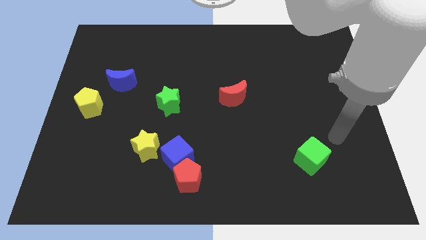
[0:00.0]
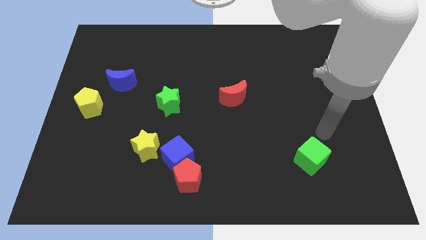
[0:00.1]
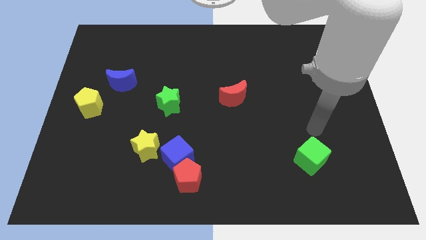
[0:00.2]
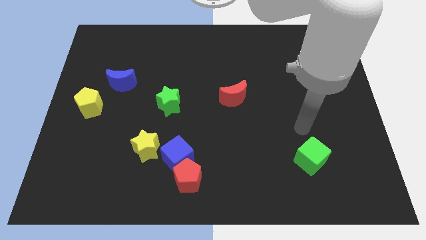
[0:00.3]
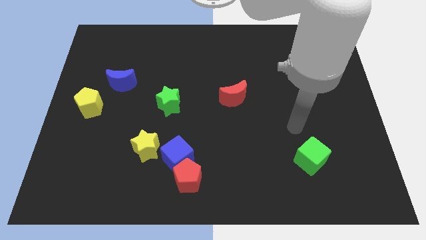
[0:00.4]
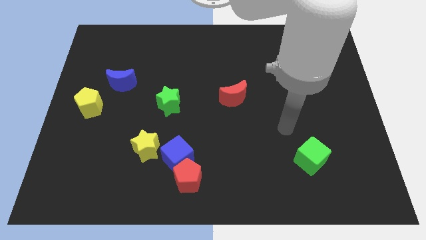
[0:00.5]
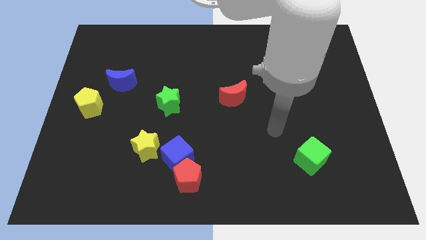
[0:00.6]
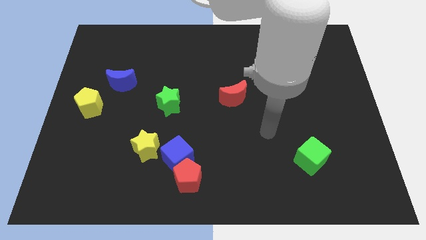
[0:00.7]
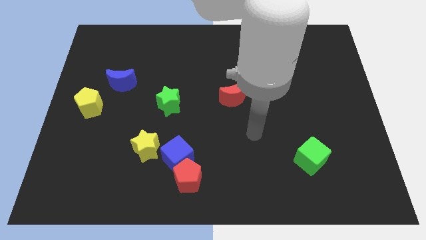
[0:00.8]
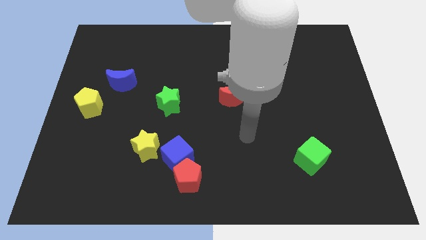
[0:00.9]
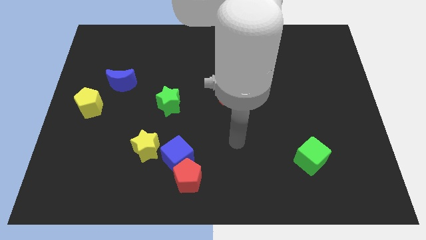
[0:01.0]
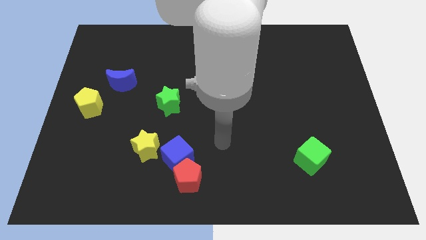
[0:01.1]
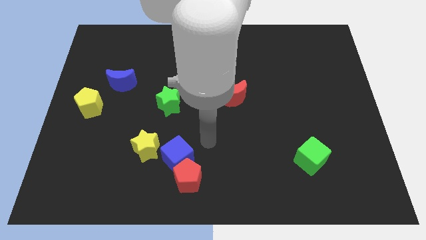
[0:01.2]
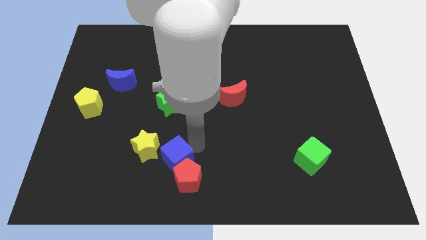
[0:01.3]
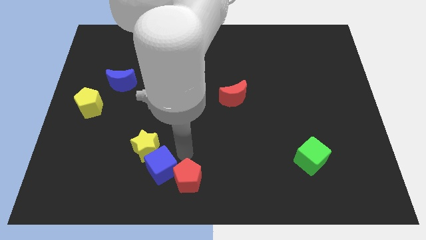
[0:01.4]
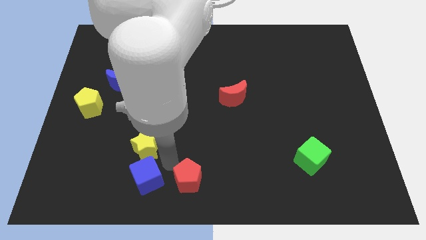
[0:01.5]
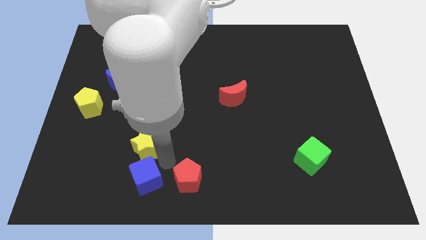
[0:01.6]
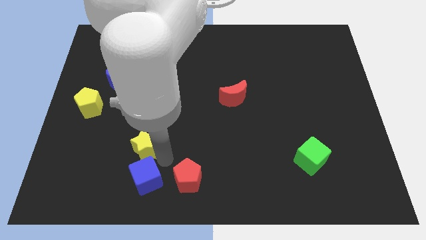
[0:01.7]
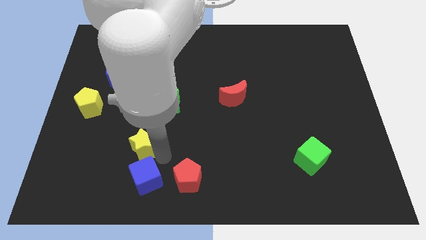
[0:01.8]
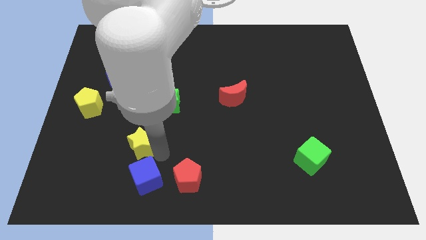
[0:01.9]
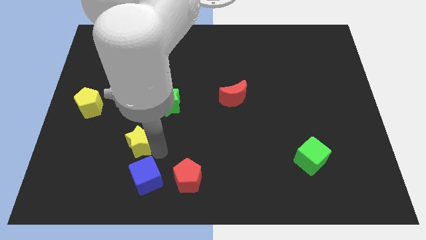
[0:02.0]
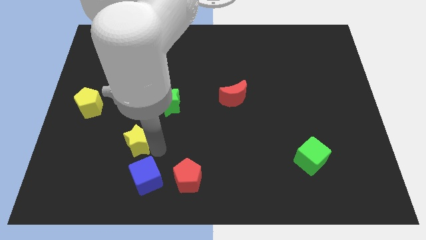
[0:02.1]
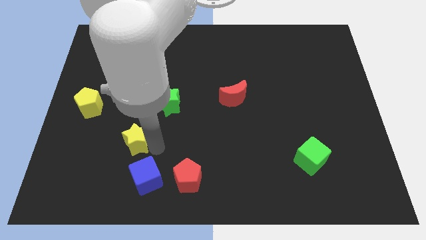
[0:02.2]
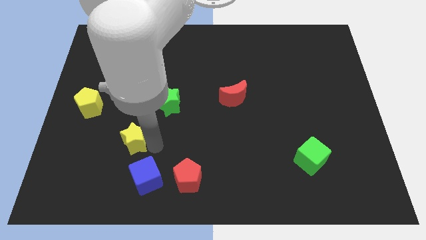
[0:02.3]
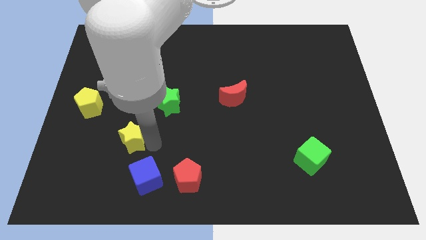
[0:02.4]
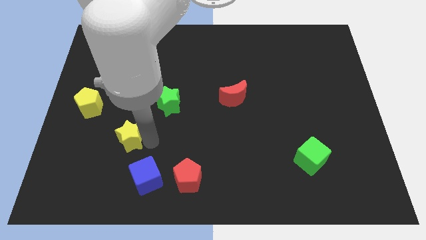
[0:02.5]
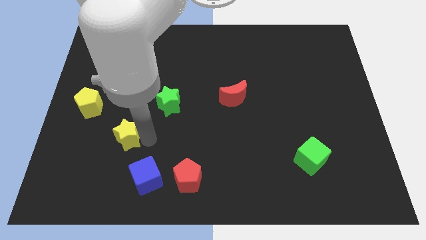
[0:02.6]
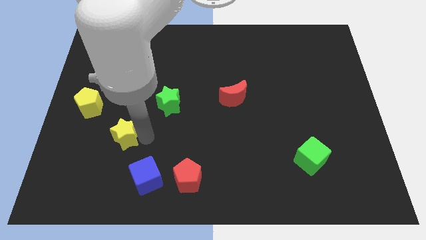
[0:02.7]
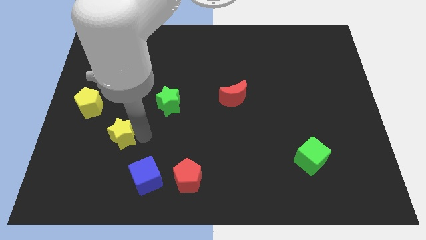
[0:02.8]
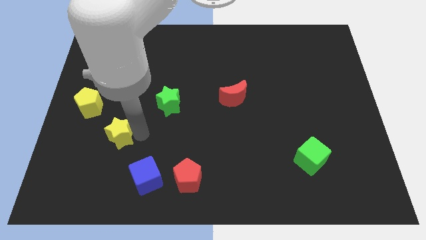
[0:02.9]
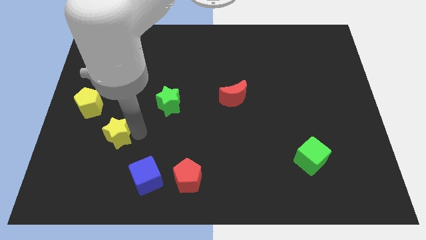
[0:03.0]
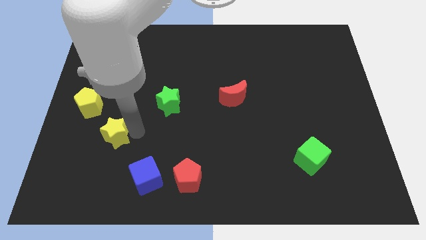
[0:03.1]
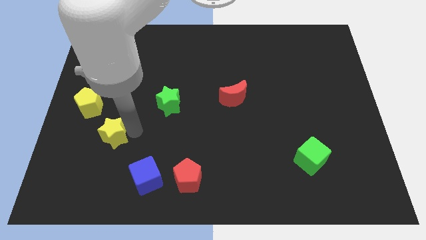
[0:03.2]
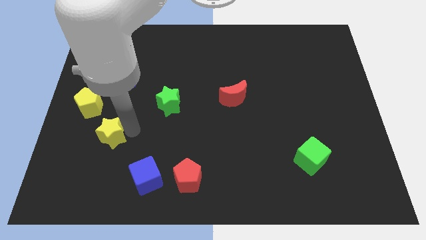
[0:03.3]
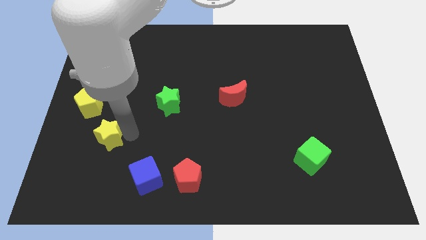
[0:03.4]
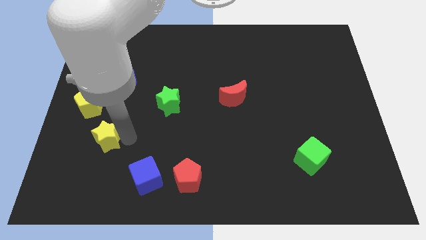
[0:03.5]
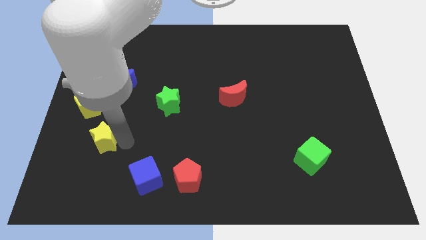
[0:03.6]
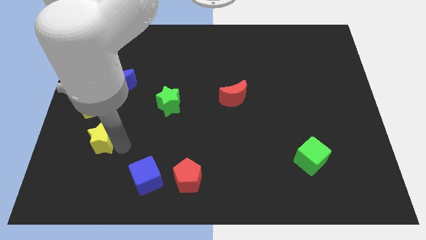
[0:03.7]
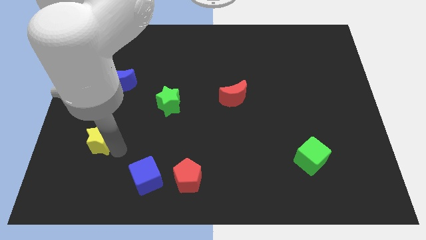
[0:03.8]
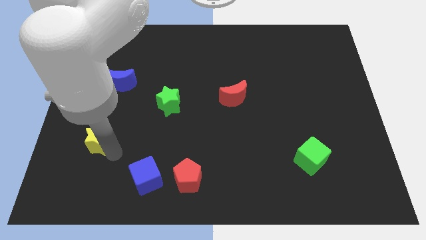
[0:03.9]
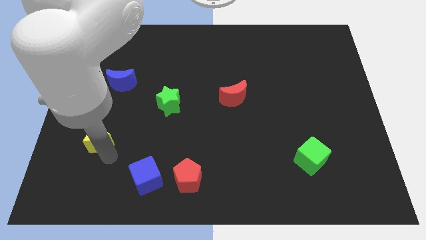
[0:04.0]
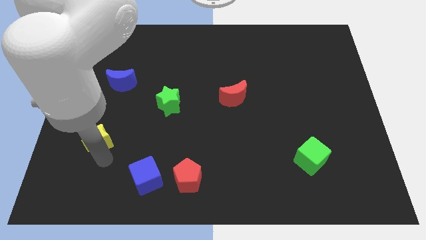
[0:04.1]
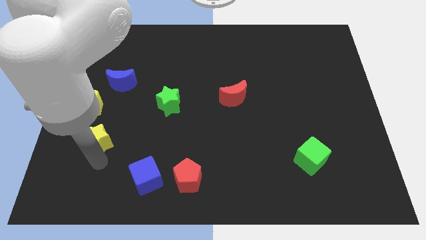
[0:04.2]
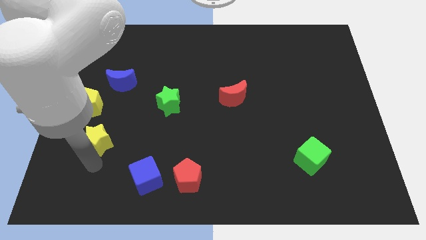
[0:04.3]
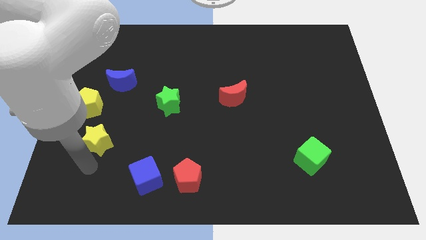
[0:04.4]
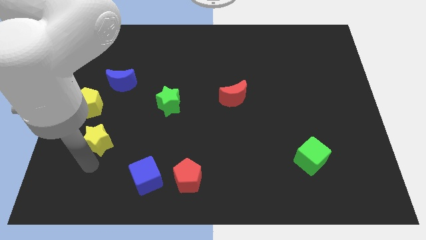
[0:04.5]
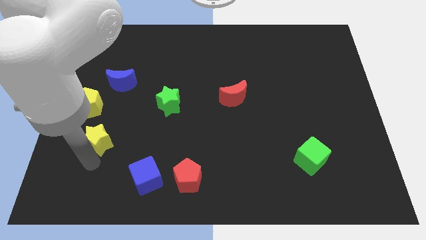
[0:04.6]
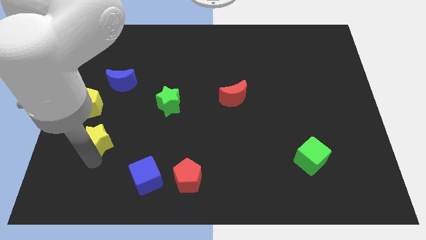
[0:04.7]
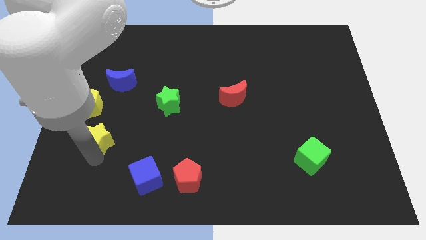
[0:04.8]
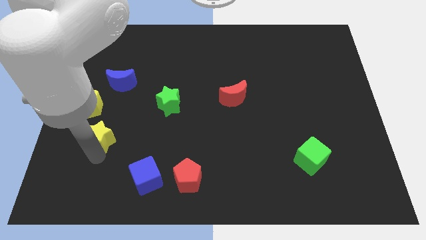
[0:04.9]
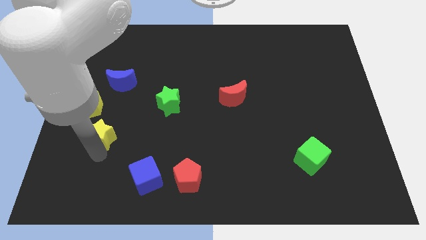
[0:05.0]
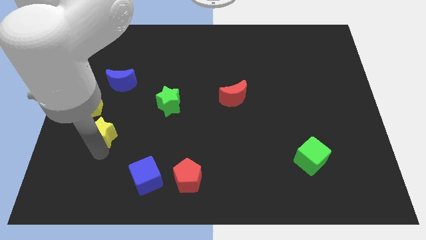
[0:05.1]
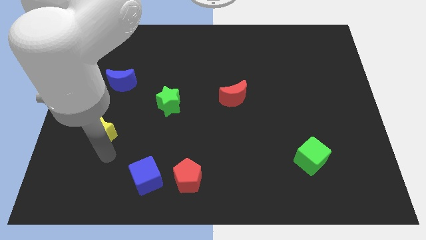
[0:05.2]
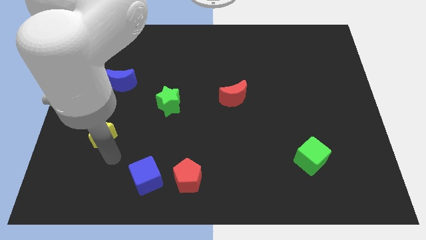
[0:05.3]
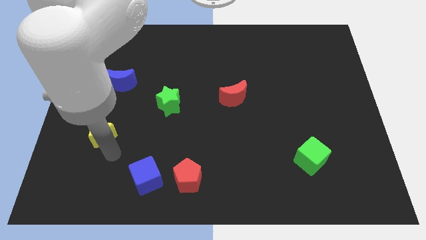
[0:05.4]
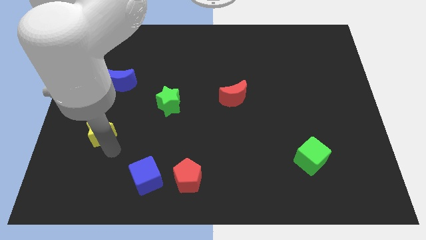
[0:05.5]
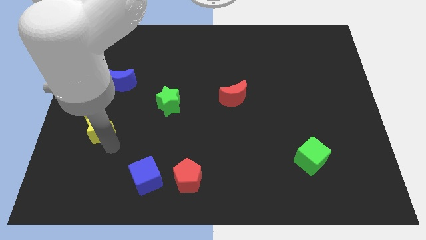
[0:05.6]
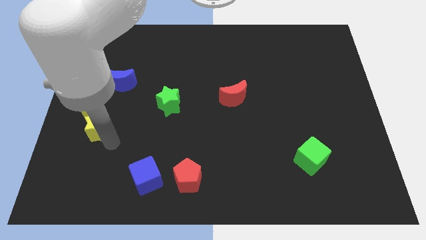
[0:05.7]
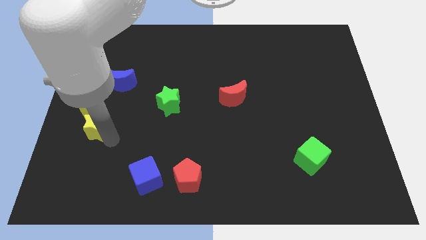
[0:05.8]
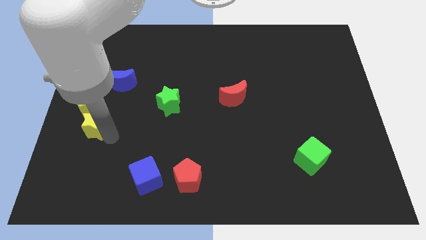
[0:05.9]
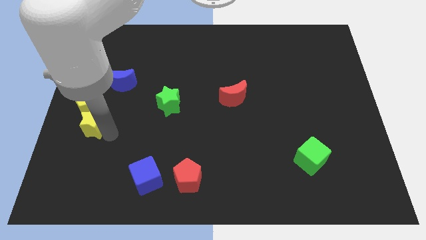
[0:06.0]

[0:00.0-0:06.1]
put the yellow star towards the yellow pentagon

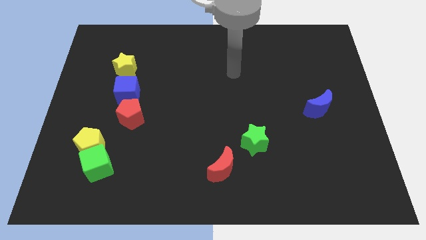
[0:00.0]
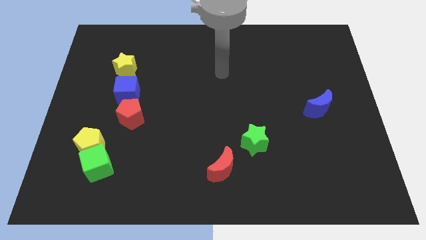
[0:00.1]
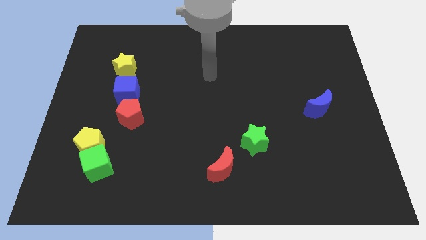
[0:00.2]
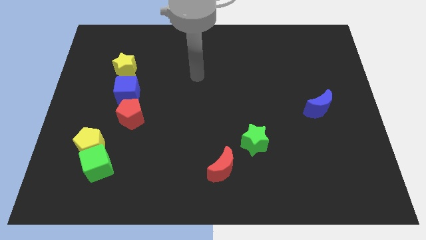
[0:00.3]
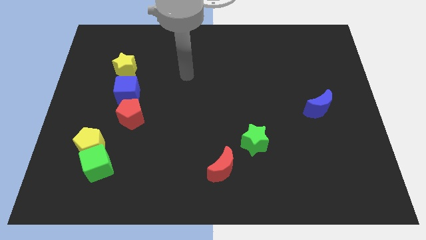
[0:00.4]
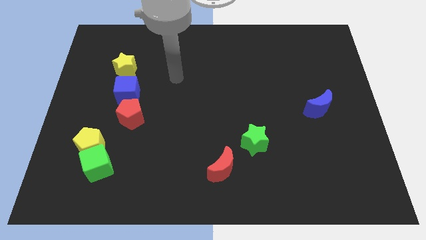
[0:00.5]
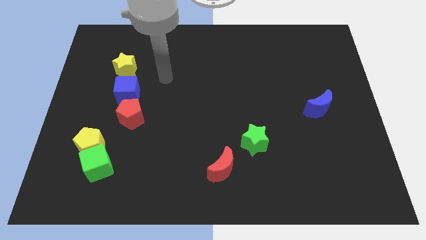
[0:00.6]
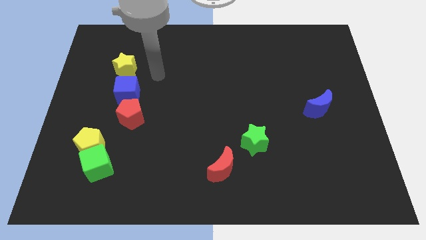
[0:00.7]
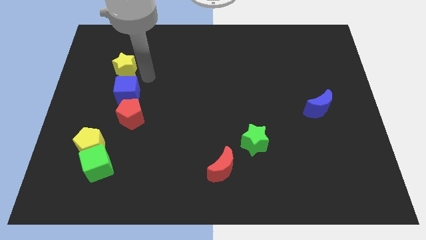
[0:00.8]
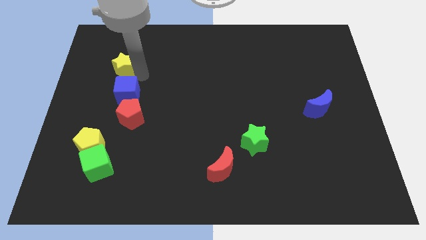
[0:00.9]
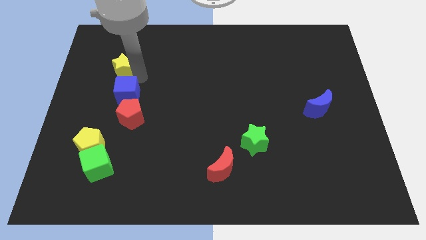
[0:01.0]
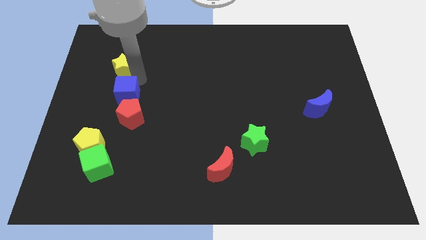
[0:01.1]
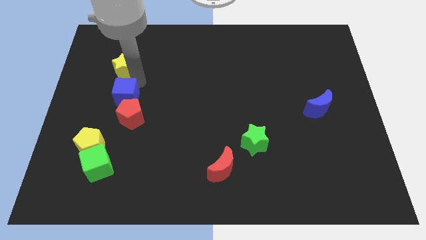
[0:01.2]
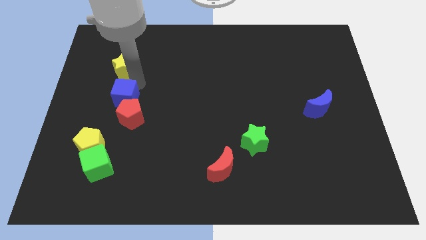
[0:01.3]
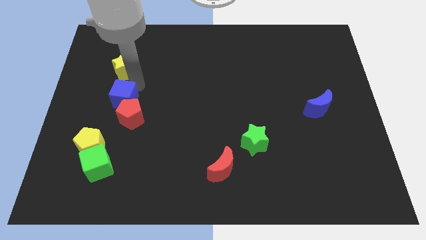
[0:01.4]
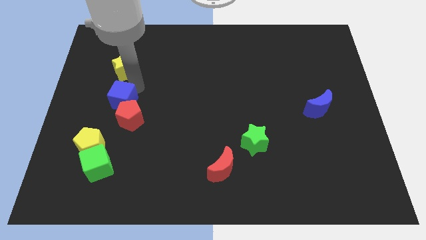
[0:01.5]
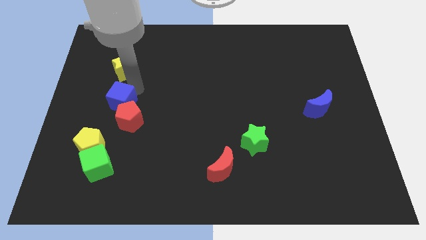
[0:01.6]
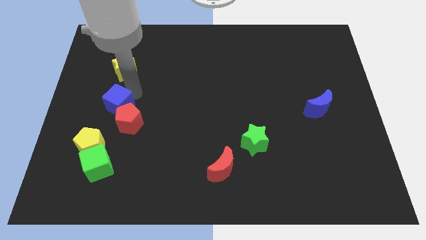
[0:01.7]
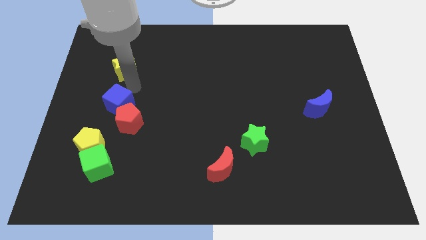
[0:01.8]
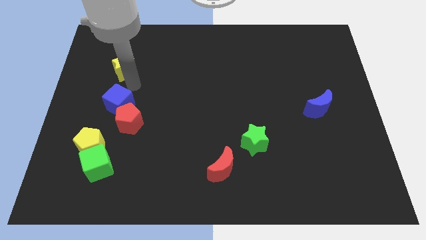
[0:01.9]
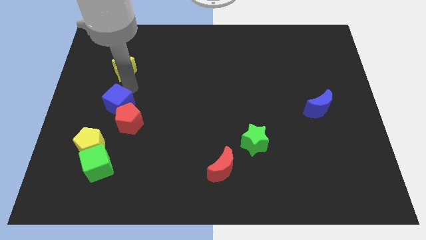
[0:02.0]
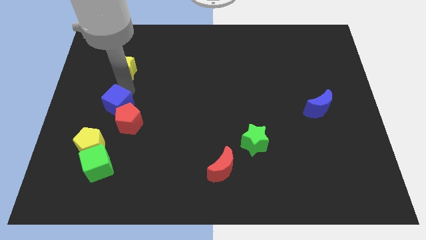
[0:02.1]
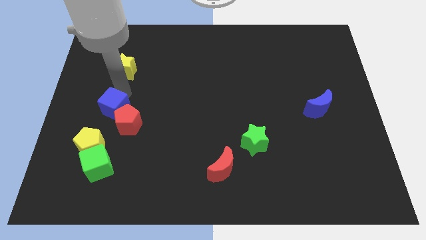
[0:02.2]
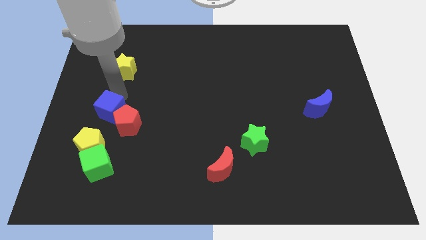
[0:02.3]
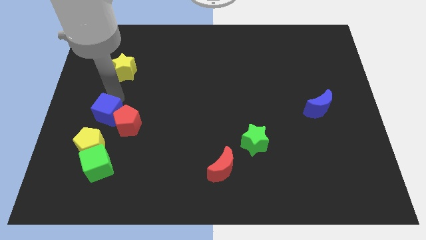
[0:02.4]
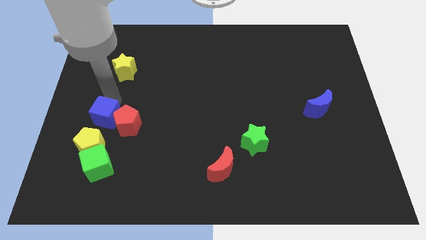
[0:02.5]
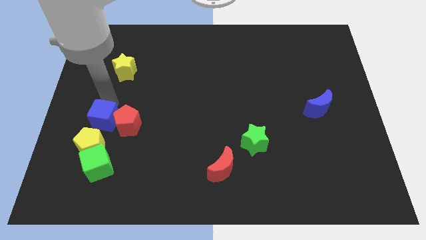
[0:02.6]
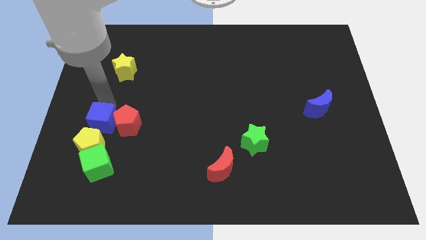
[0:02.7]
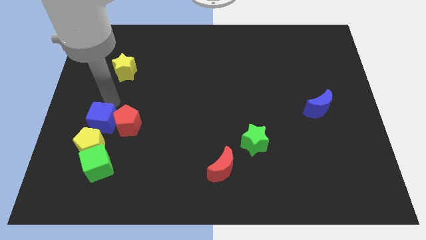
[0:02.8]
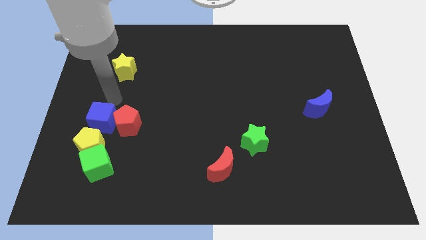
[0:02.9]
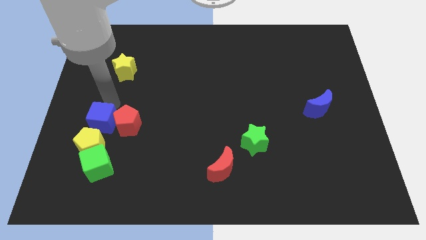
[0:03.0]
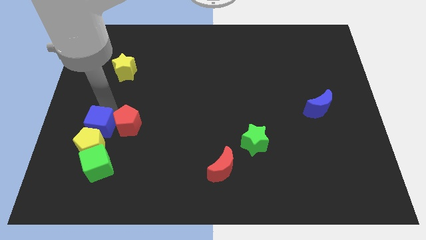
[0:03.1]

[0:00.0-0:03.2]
slide the blue cube towards the yellow pentagon
